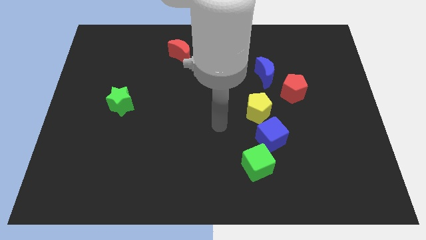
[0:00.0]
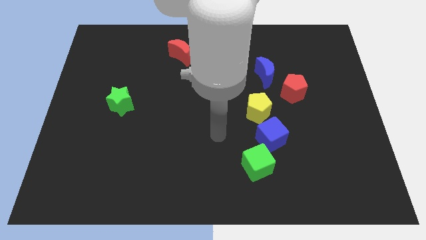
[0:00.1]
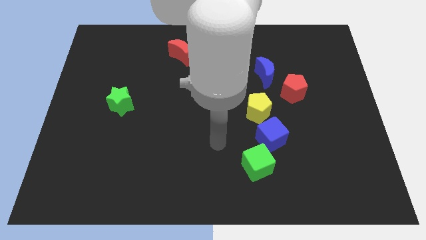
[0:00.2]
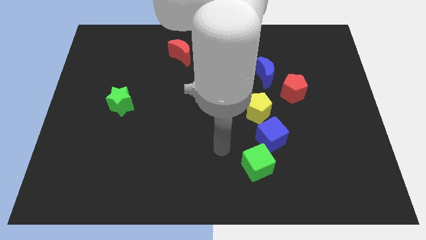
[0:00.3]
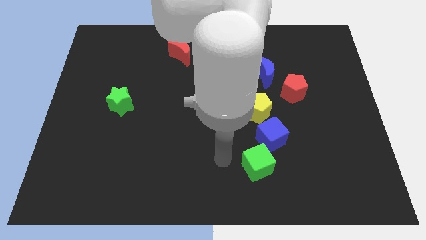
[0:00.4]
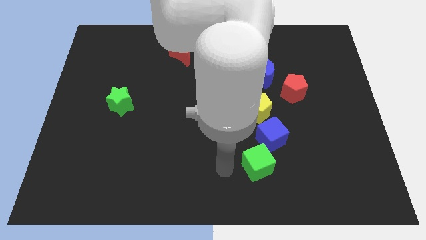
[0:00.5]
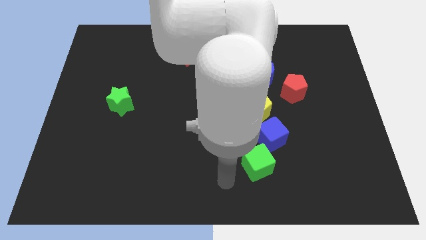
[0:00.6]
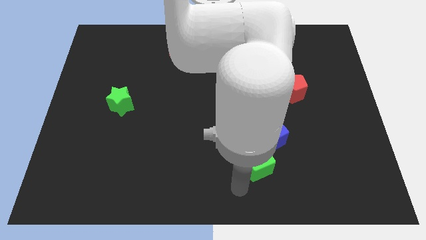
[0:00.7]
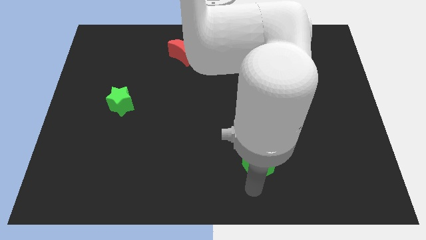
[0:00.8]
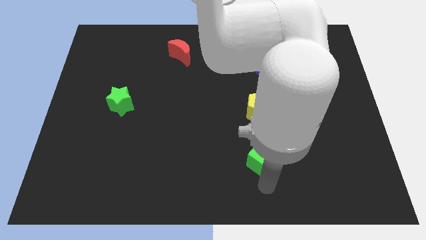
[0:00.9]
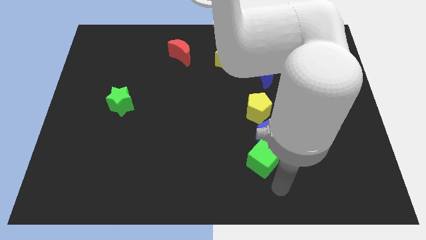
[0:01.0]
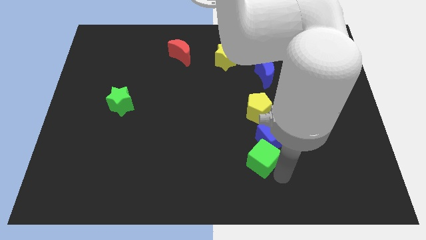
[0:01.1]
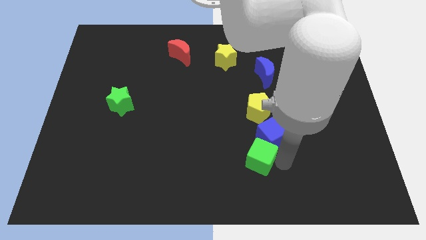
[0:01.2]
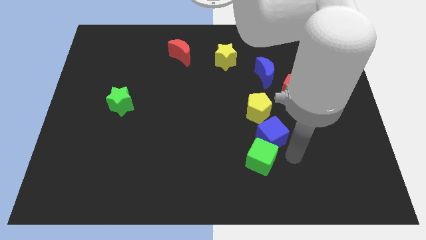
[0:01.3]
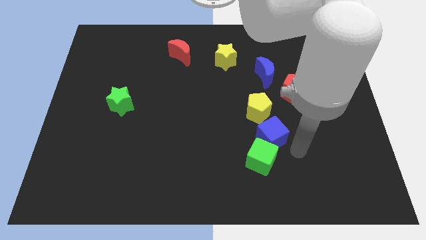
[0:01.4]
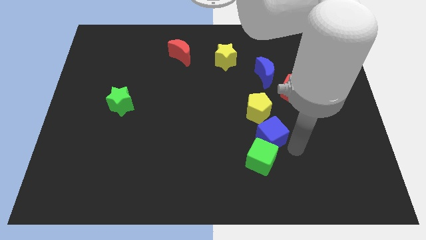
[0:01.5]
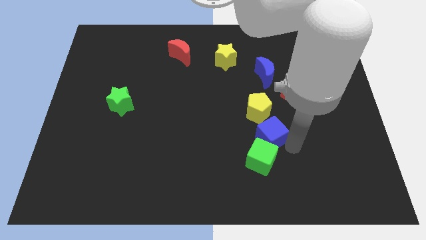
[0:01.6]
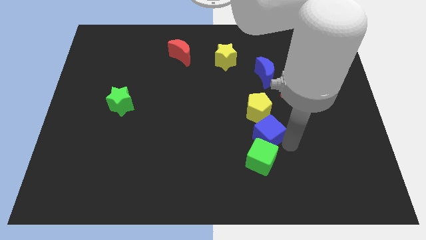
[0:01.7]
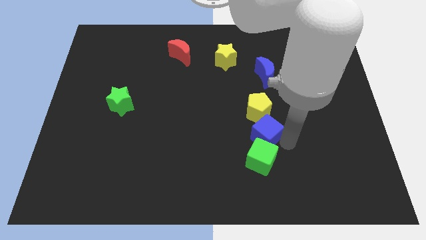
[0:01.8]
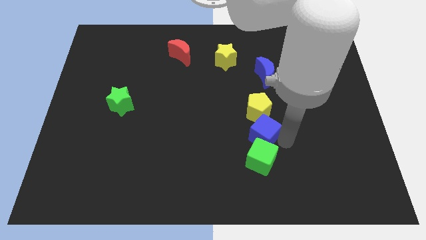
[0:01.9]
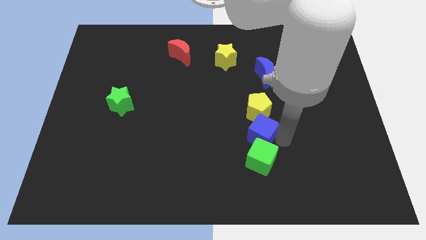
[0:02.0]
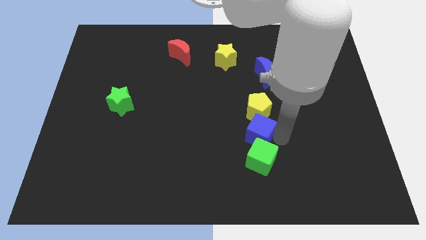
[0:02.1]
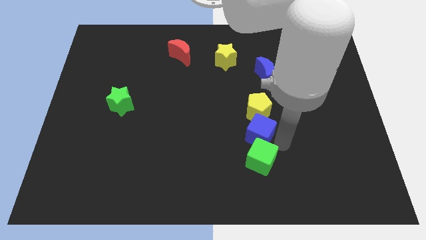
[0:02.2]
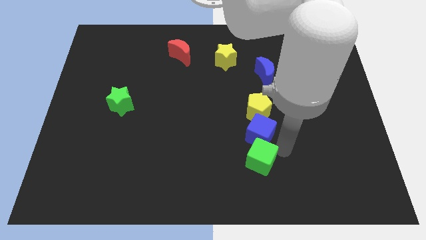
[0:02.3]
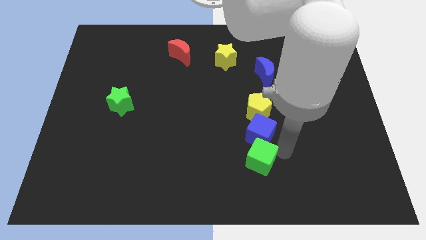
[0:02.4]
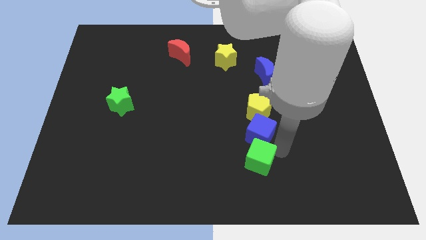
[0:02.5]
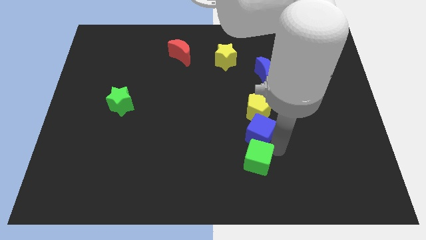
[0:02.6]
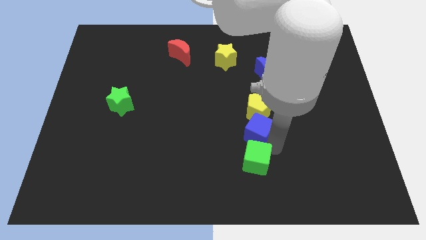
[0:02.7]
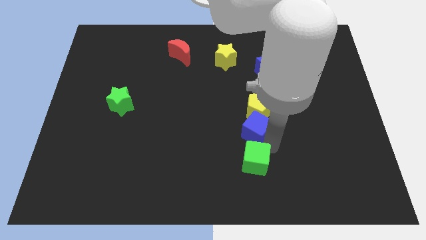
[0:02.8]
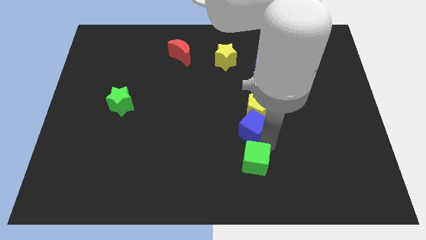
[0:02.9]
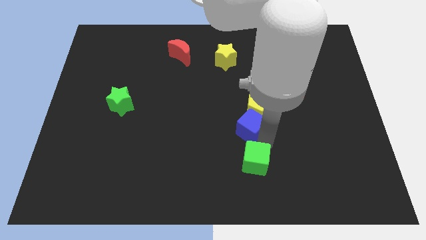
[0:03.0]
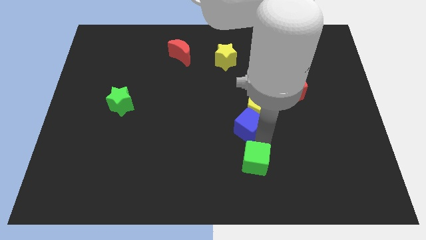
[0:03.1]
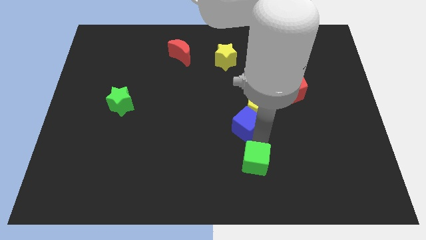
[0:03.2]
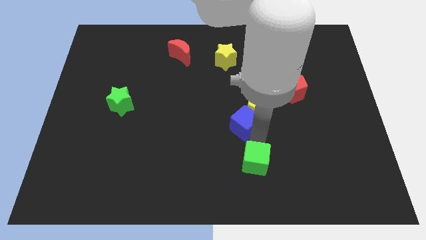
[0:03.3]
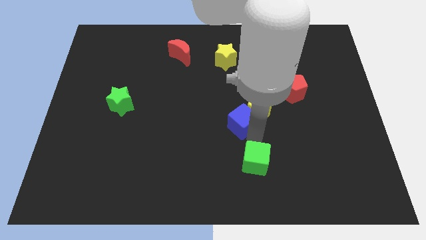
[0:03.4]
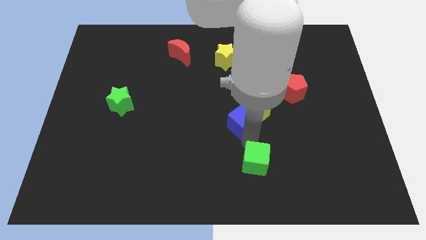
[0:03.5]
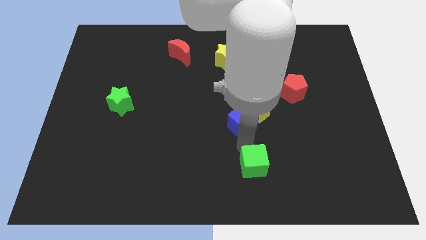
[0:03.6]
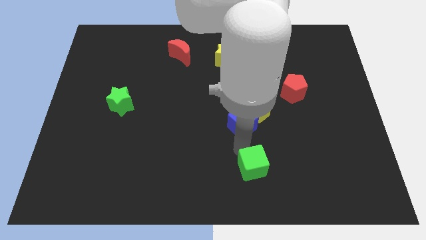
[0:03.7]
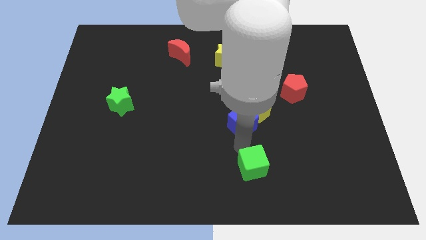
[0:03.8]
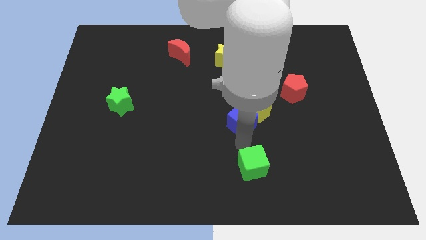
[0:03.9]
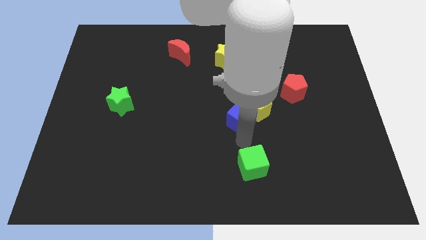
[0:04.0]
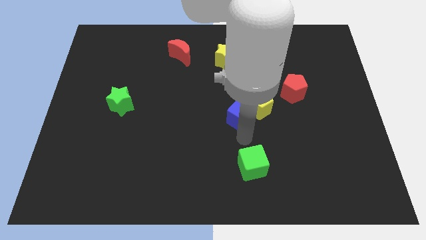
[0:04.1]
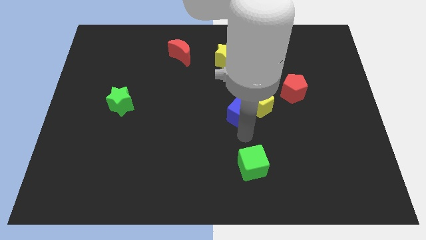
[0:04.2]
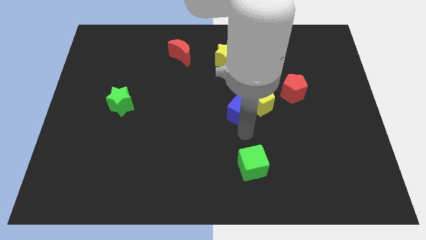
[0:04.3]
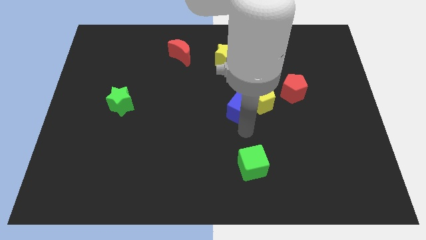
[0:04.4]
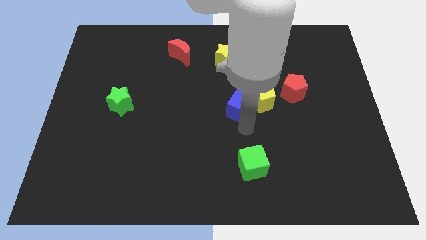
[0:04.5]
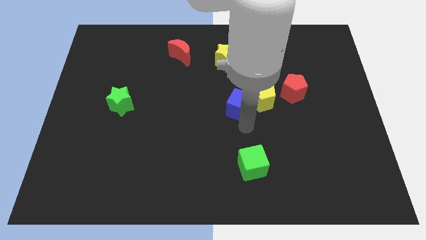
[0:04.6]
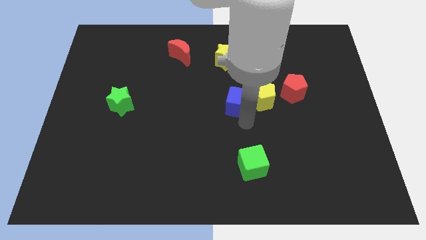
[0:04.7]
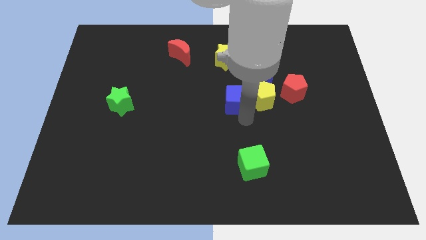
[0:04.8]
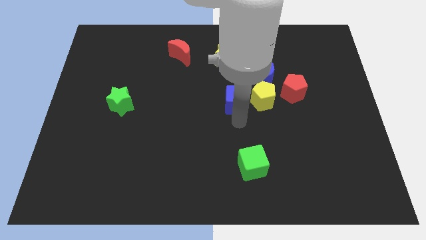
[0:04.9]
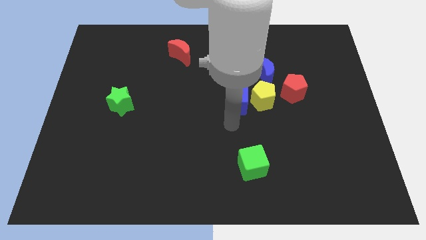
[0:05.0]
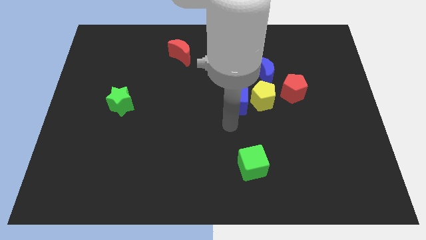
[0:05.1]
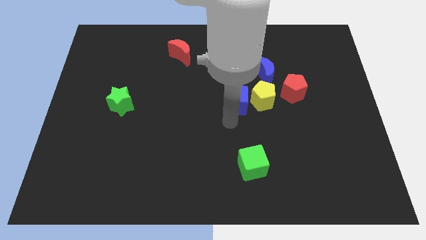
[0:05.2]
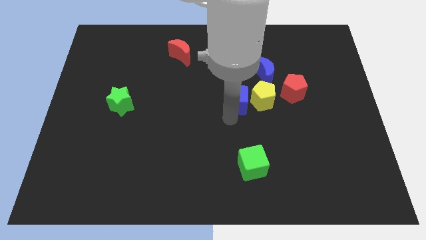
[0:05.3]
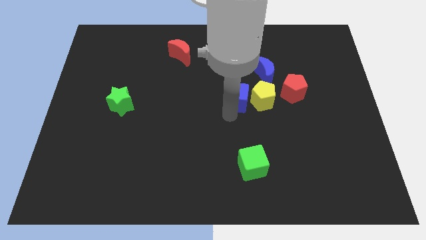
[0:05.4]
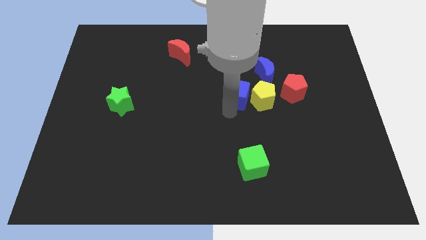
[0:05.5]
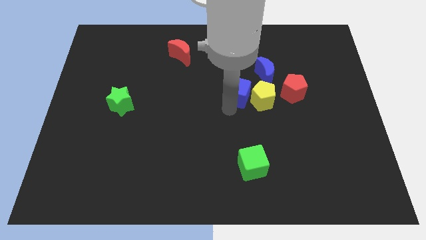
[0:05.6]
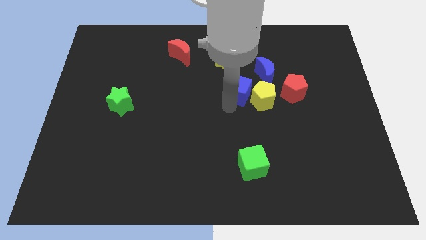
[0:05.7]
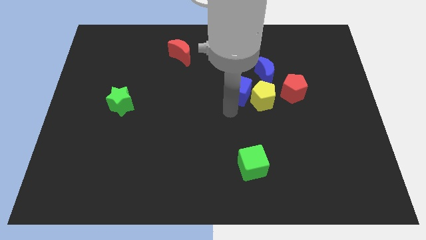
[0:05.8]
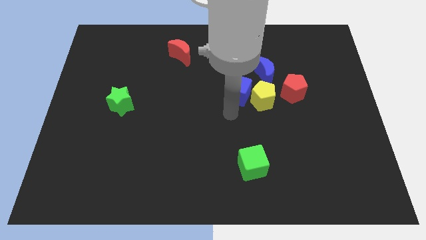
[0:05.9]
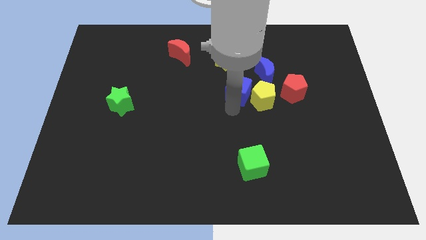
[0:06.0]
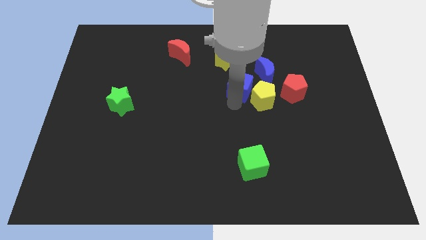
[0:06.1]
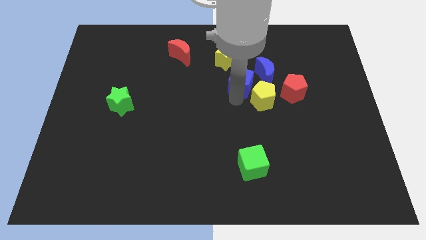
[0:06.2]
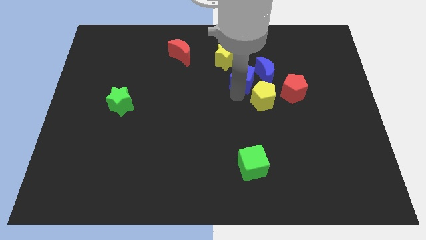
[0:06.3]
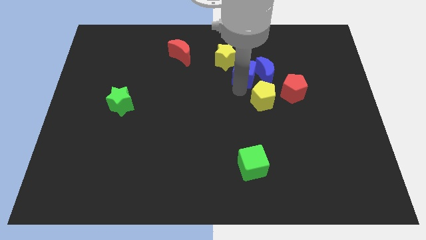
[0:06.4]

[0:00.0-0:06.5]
slide the blue cube diagonally up and to the left of the blue moon
